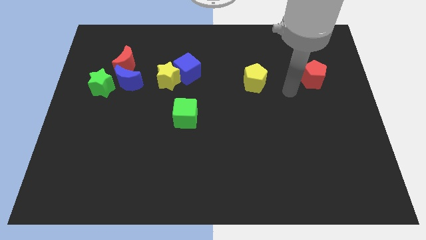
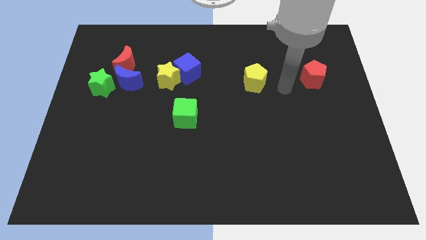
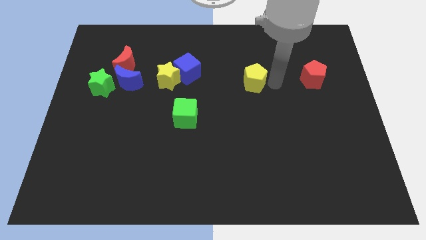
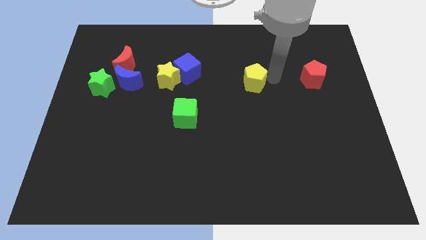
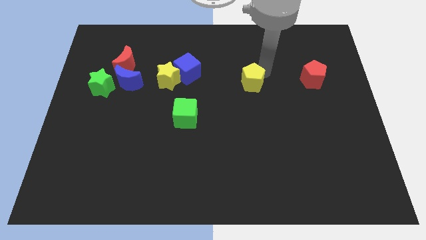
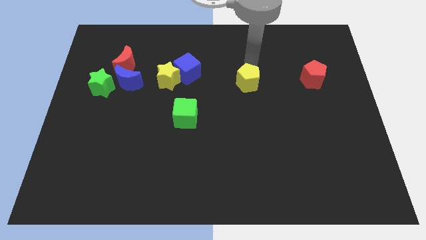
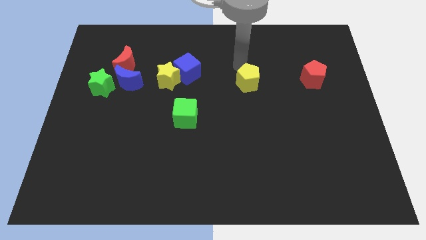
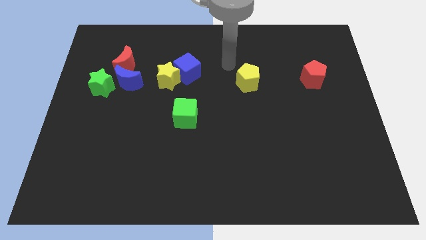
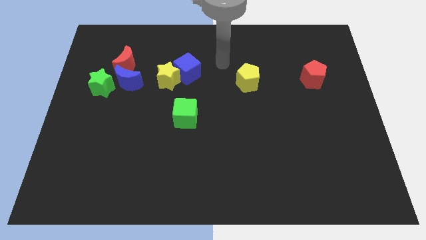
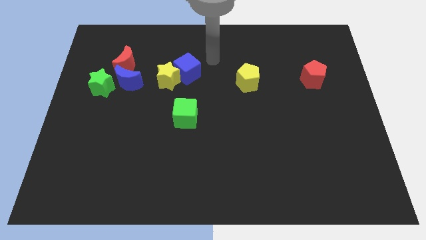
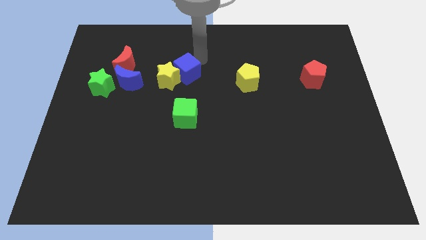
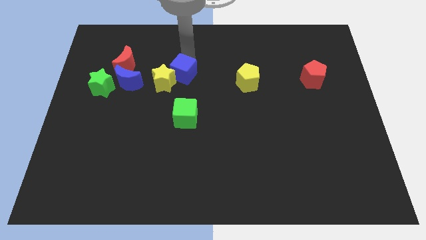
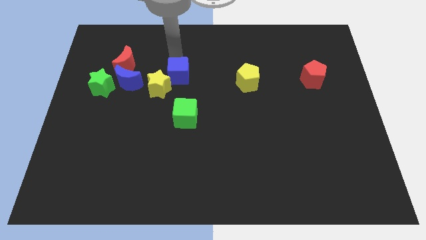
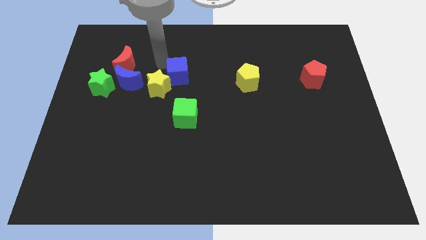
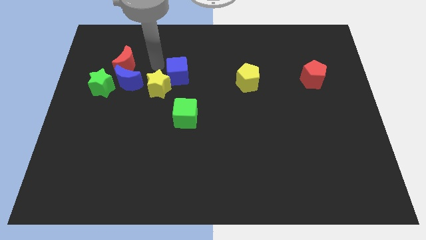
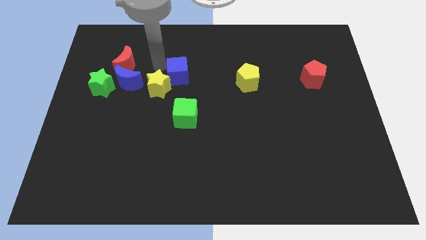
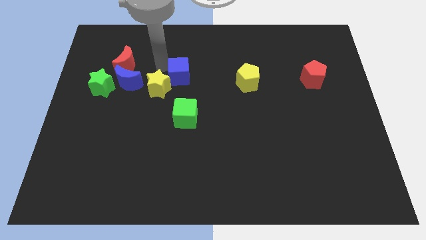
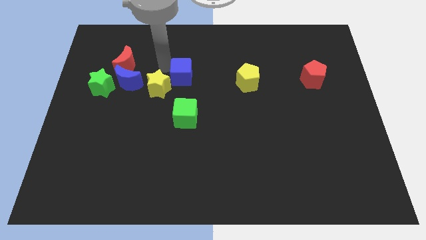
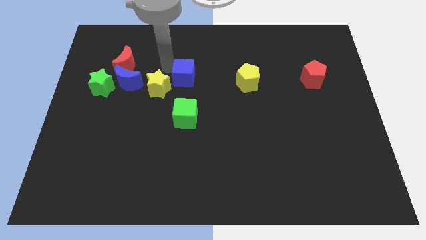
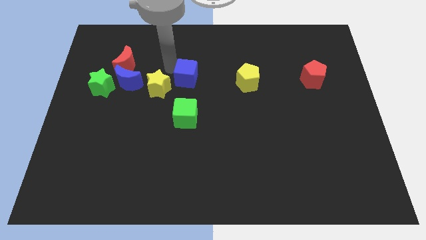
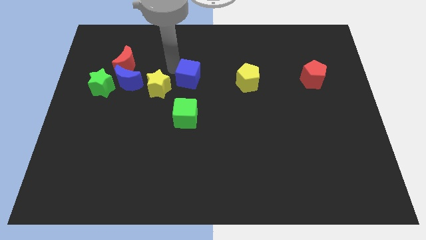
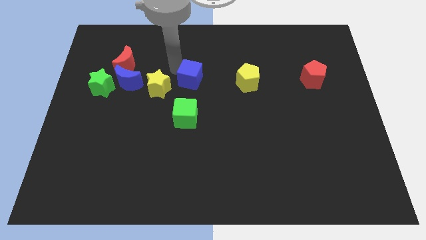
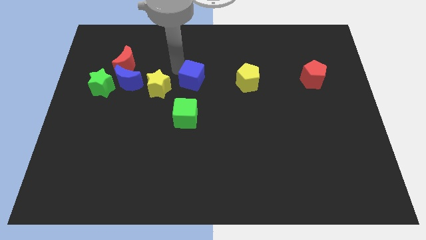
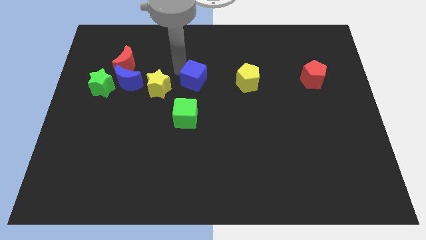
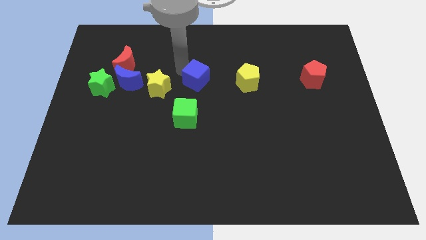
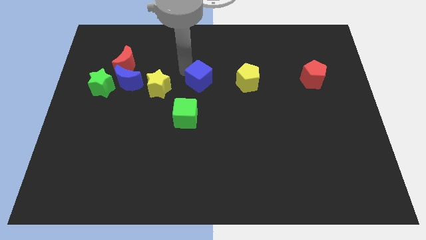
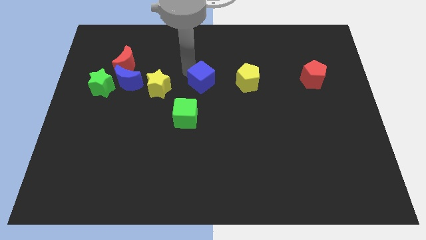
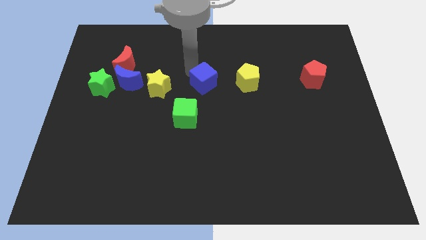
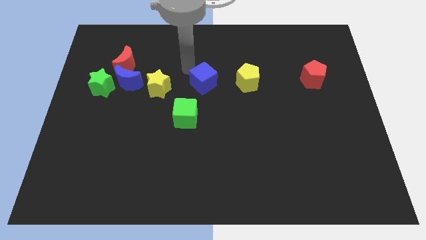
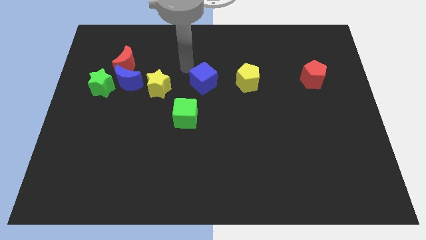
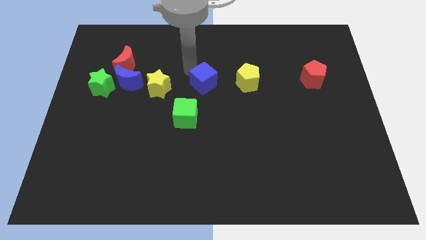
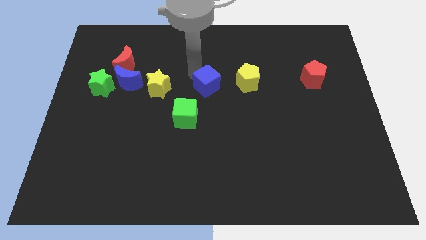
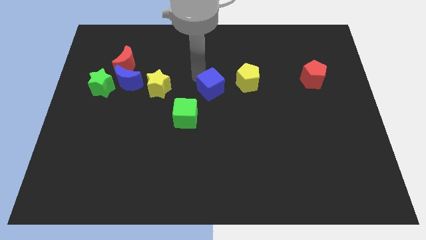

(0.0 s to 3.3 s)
slightly move the blue cube down and right

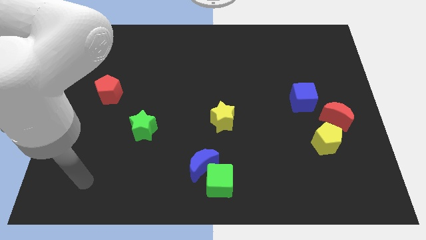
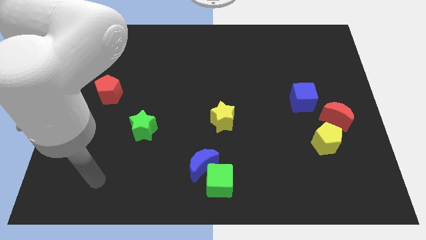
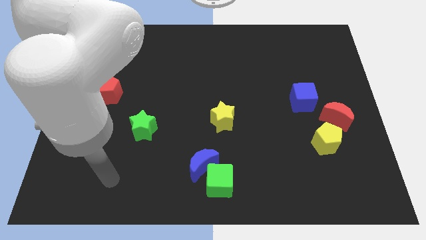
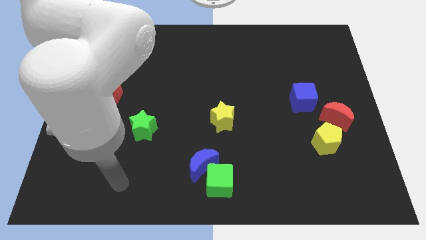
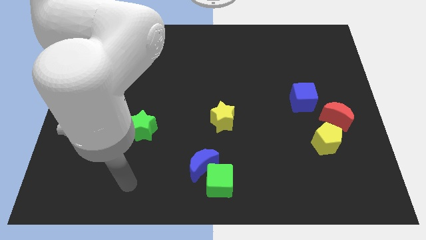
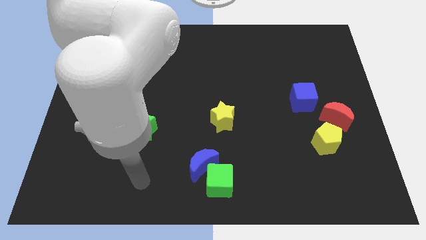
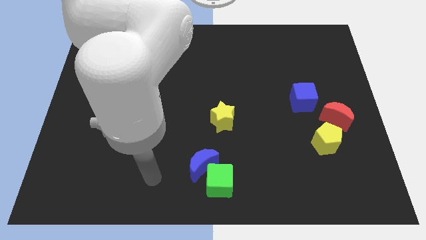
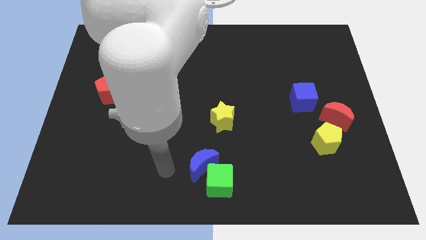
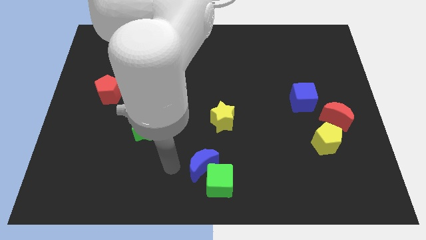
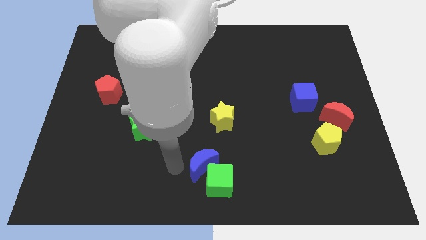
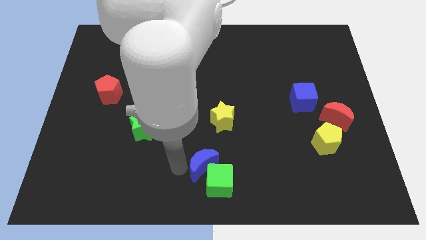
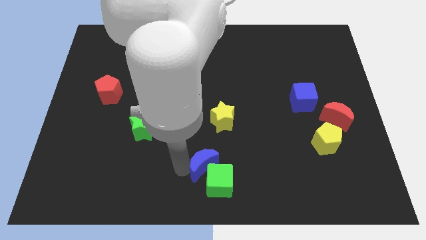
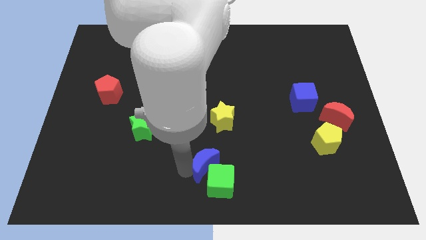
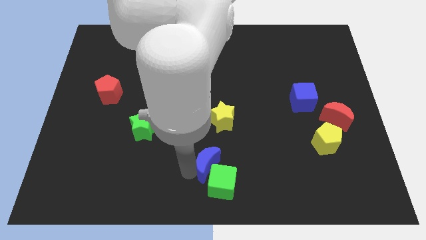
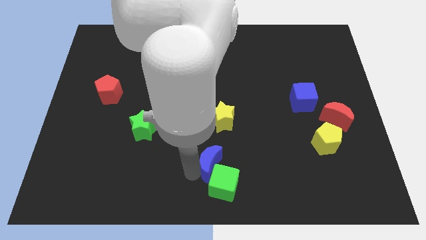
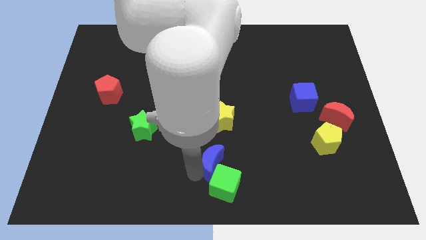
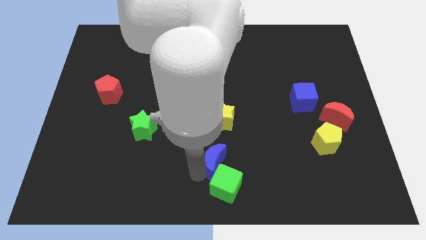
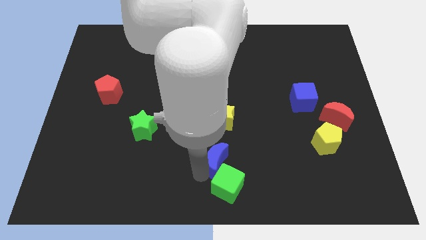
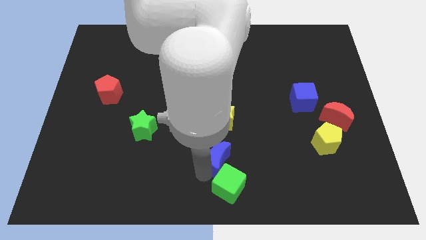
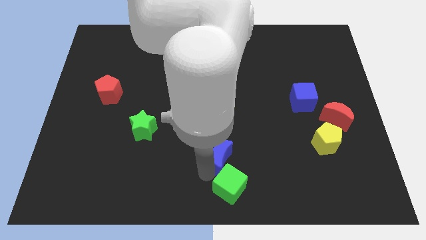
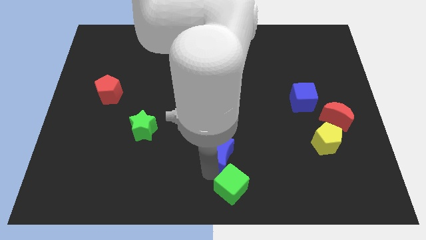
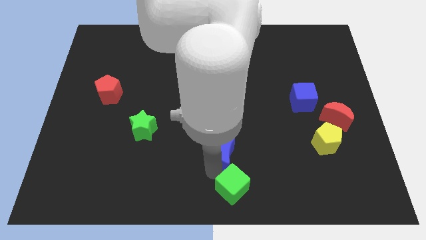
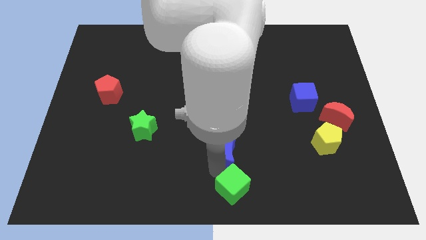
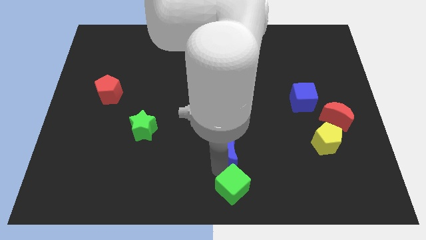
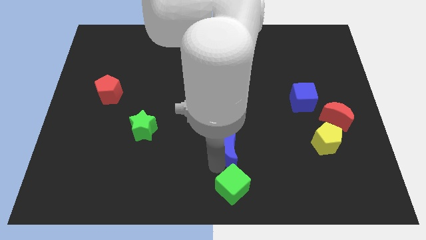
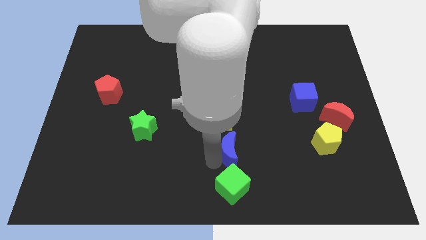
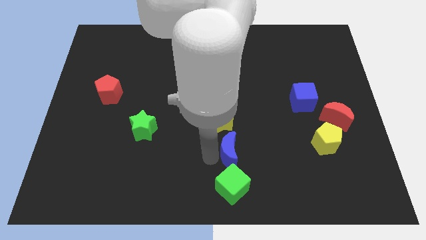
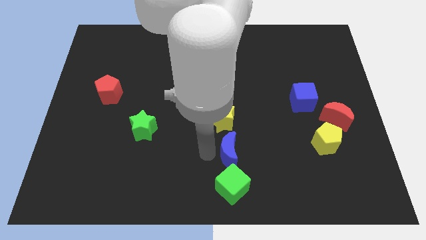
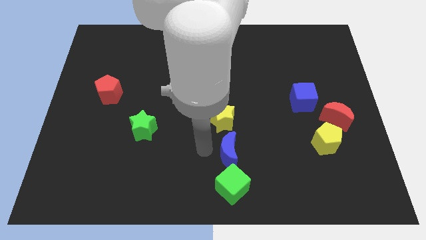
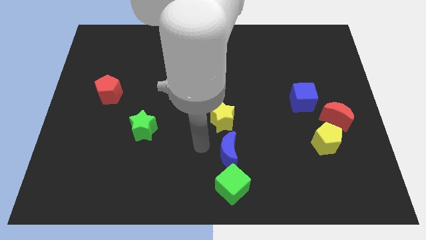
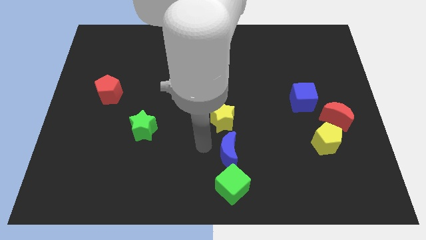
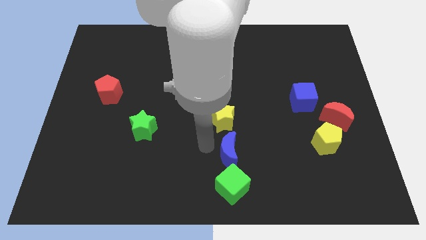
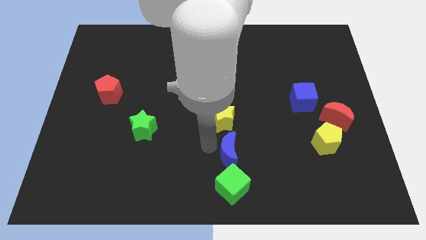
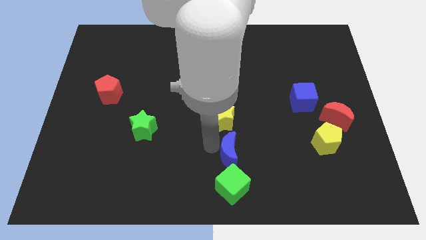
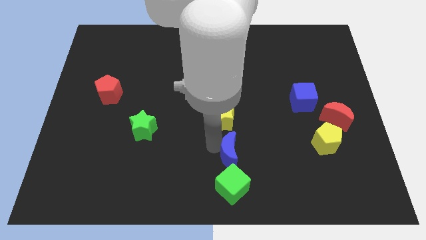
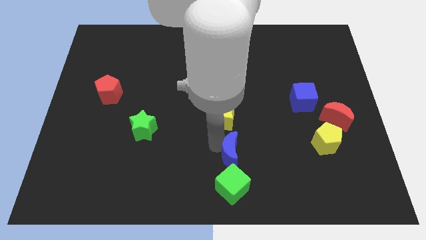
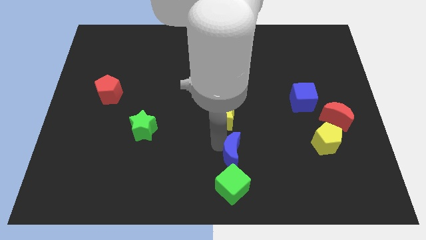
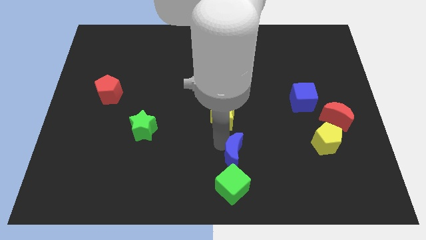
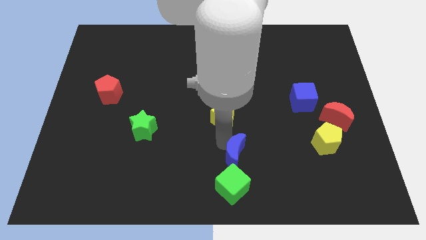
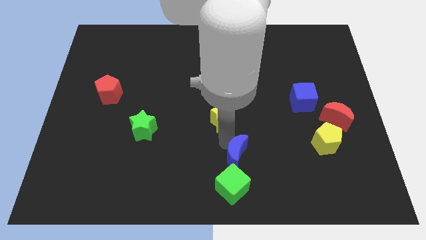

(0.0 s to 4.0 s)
slightly move the blue moon right

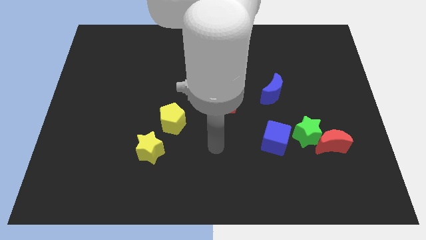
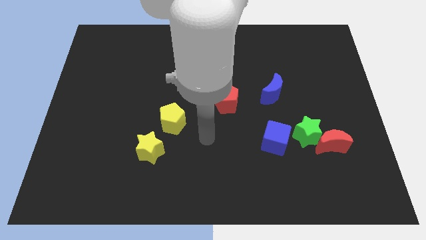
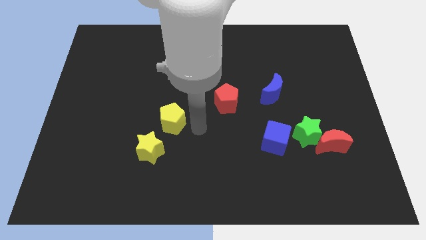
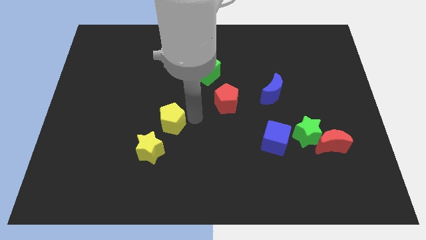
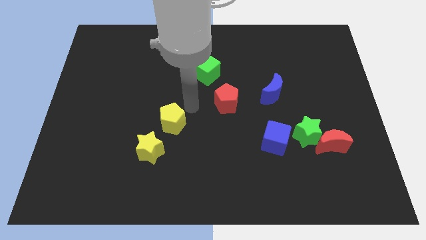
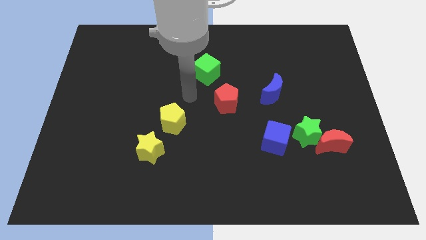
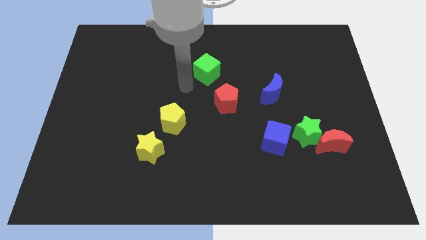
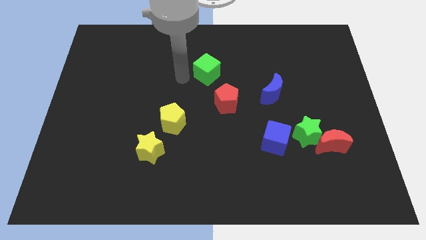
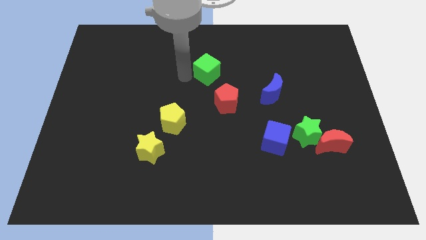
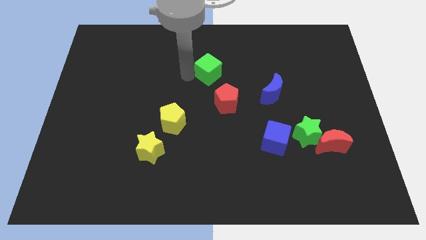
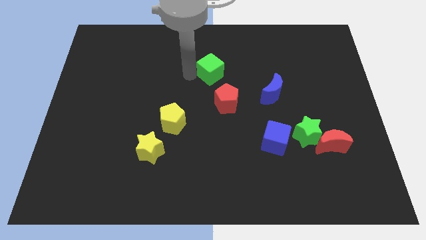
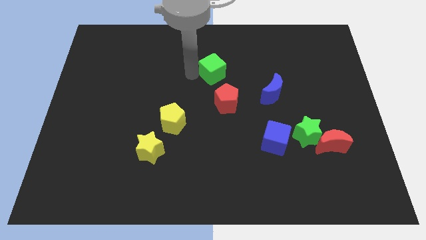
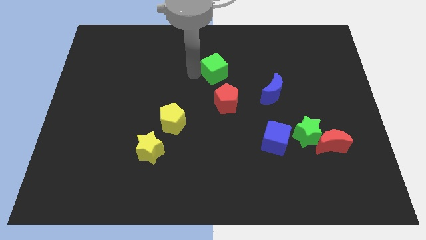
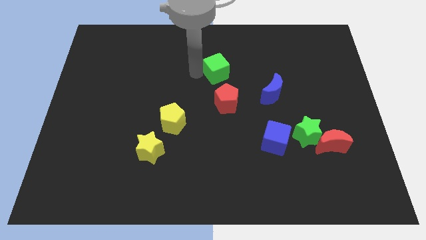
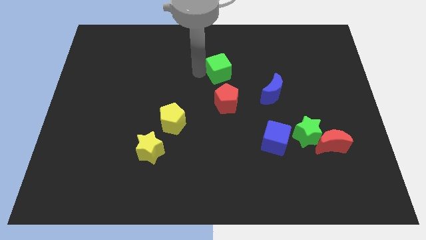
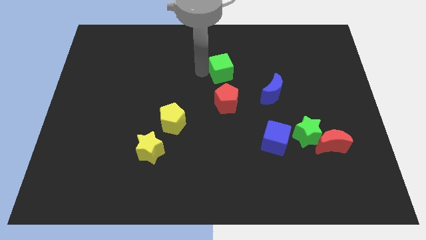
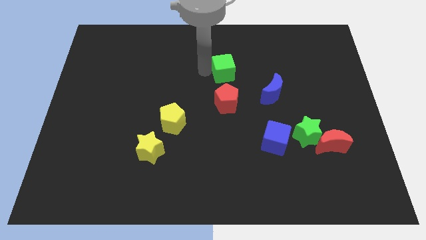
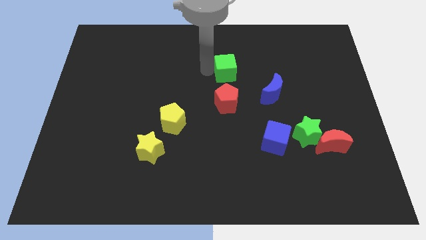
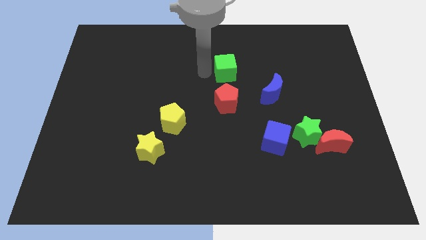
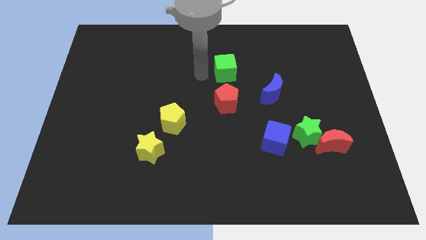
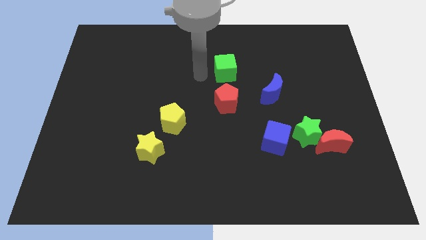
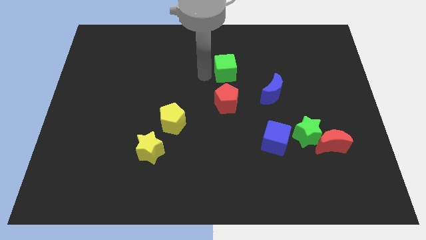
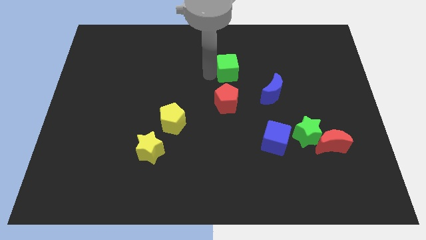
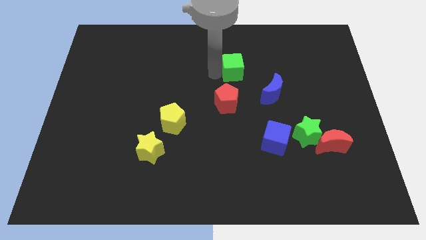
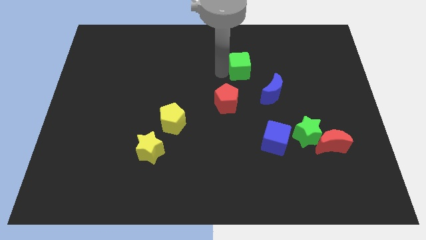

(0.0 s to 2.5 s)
slide the green cube somewhat to the right
